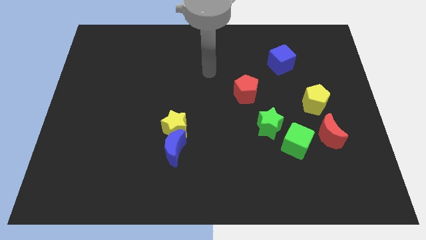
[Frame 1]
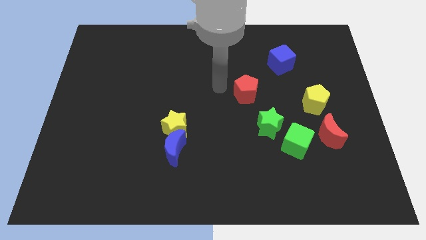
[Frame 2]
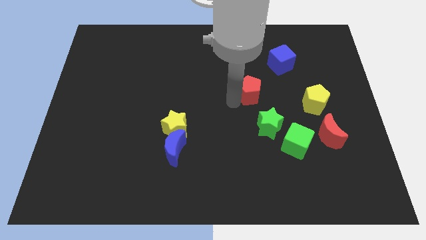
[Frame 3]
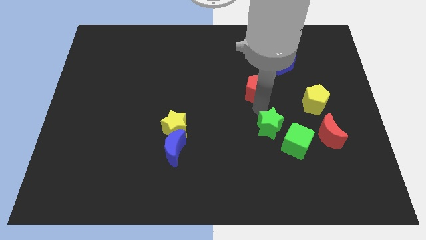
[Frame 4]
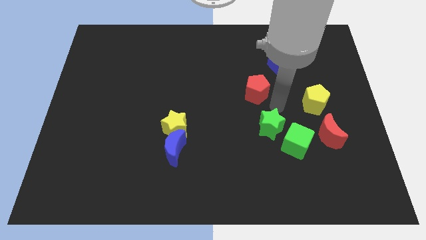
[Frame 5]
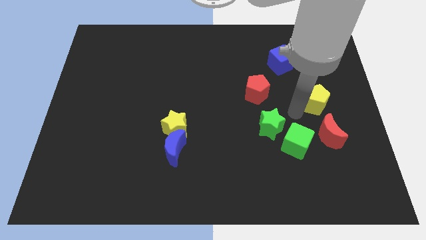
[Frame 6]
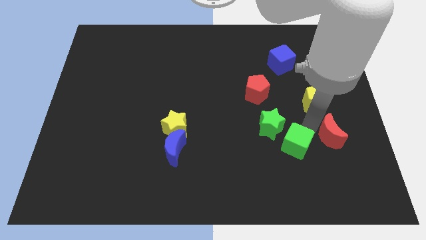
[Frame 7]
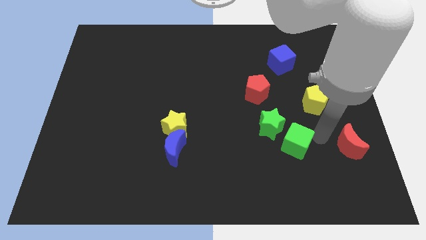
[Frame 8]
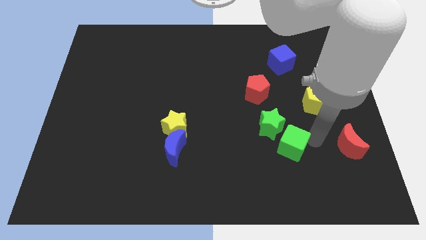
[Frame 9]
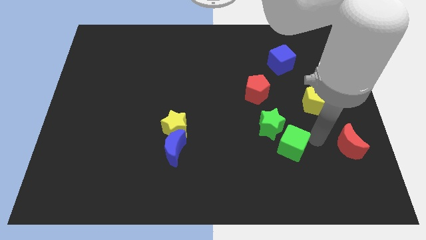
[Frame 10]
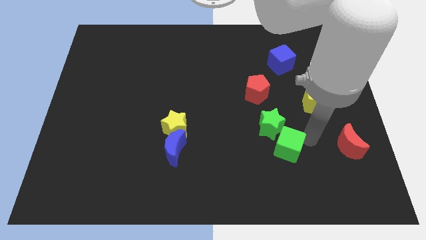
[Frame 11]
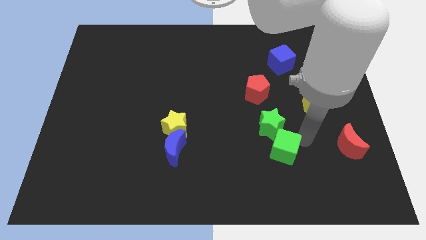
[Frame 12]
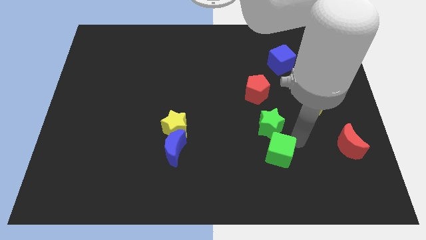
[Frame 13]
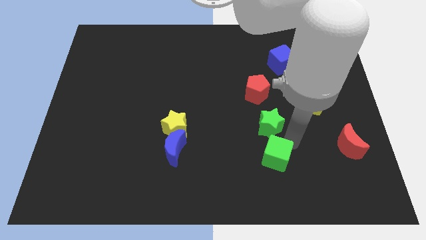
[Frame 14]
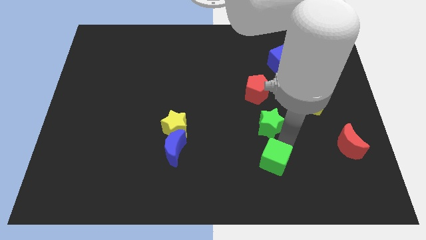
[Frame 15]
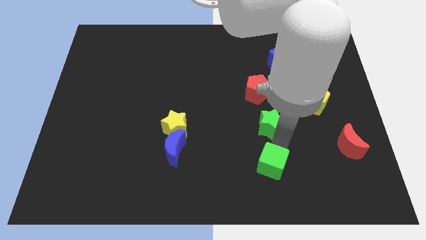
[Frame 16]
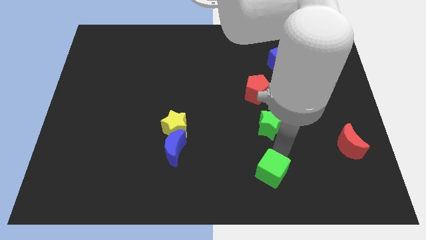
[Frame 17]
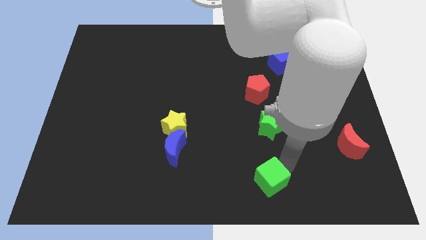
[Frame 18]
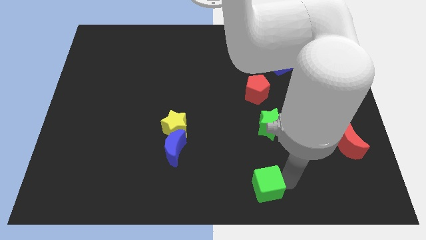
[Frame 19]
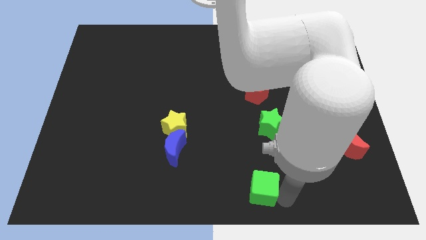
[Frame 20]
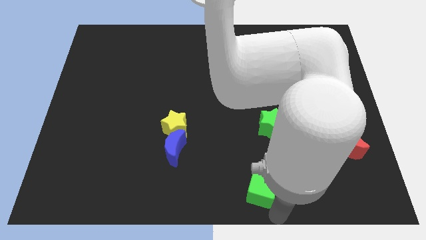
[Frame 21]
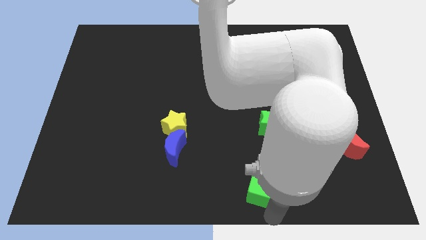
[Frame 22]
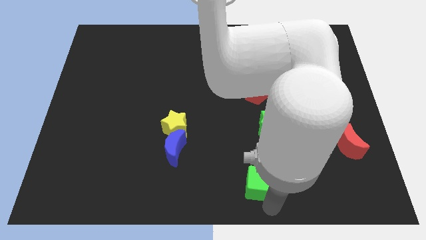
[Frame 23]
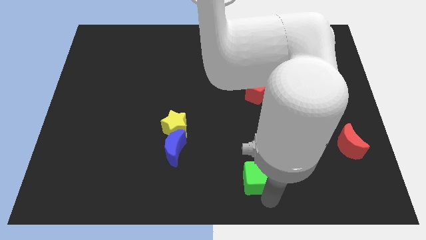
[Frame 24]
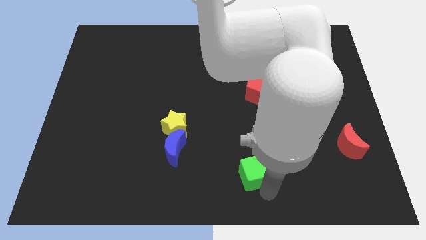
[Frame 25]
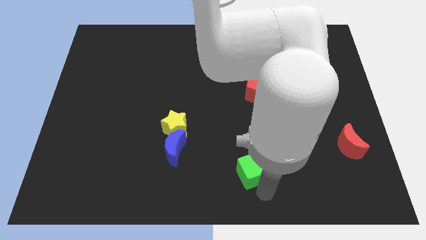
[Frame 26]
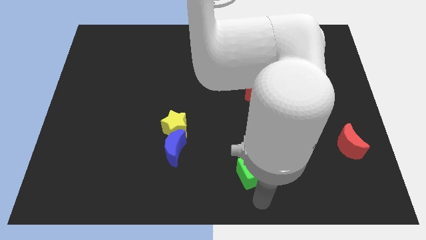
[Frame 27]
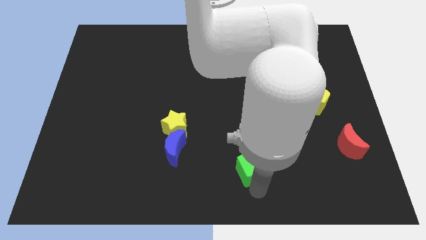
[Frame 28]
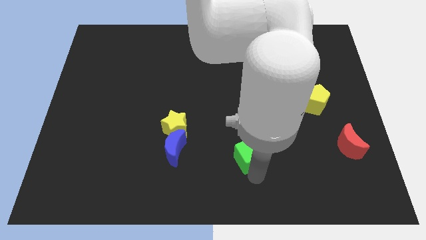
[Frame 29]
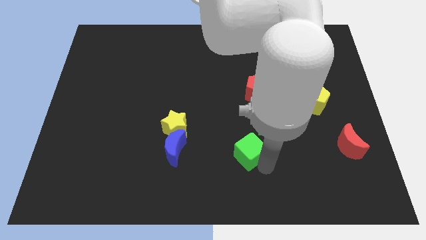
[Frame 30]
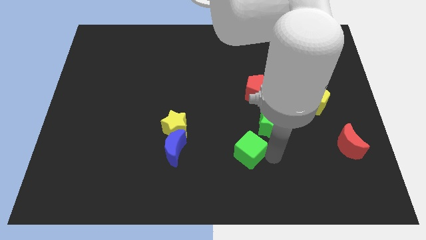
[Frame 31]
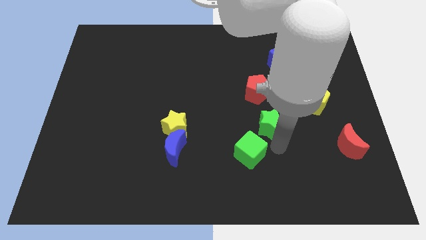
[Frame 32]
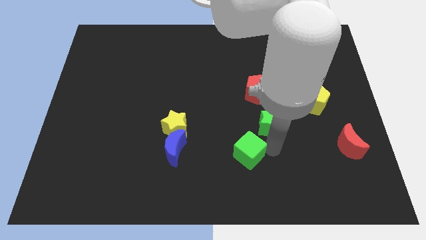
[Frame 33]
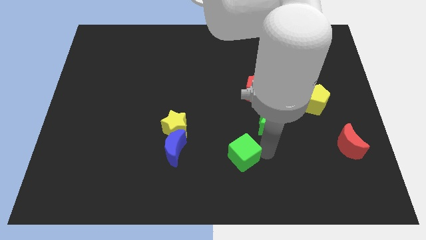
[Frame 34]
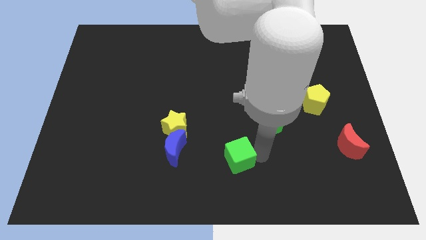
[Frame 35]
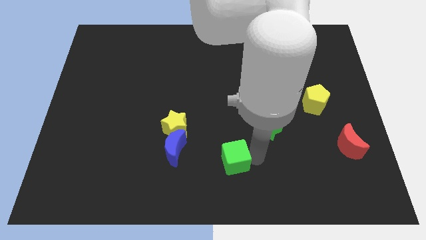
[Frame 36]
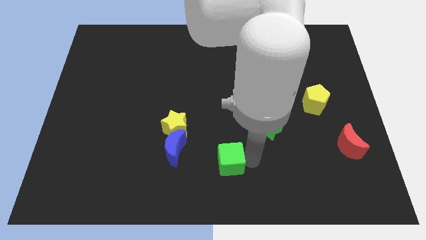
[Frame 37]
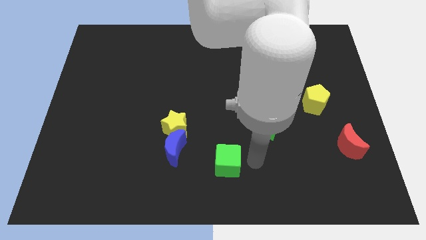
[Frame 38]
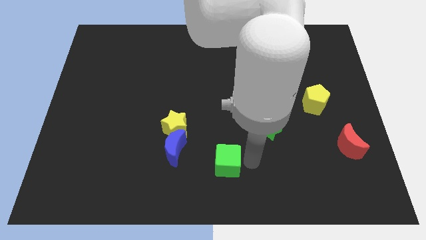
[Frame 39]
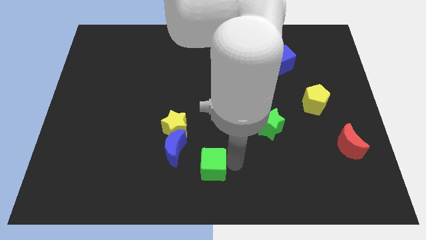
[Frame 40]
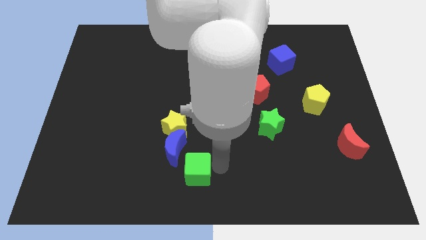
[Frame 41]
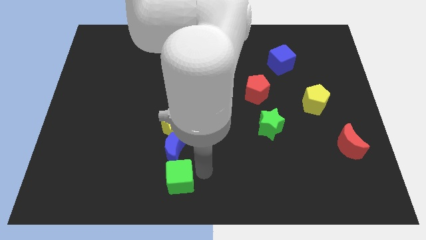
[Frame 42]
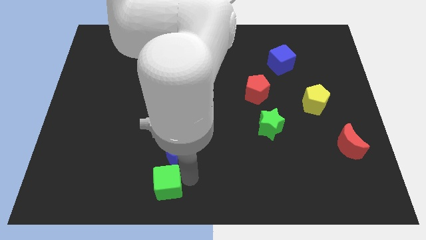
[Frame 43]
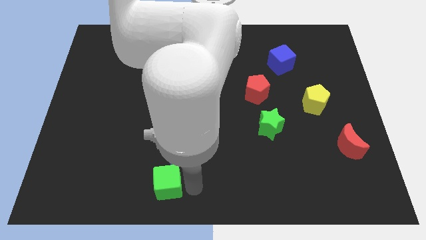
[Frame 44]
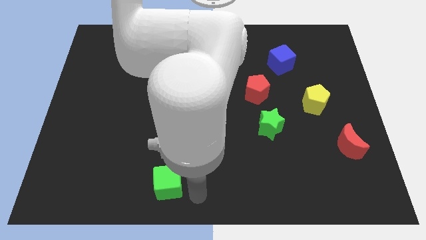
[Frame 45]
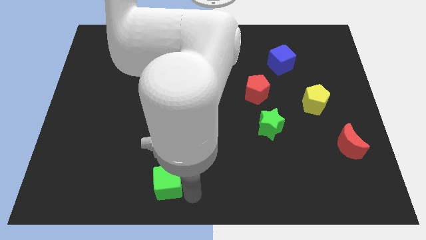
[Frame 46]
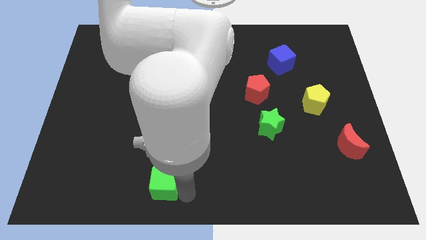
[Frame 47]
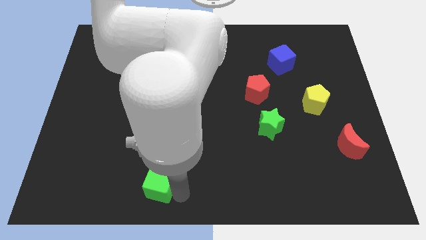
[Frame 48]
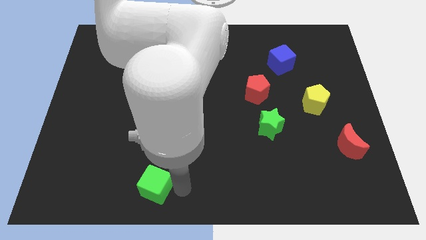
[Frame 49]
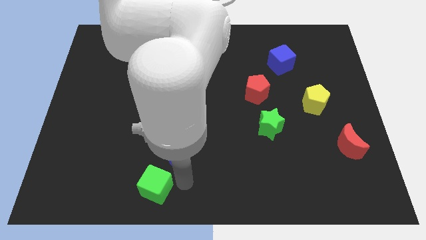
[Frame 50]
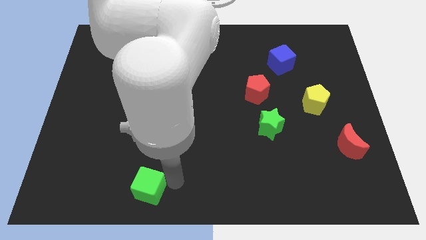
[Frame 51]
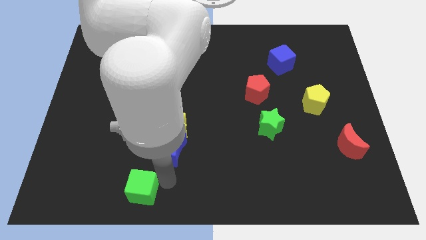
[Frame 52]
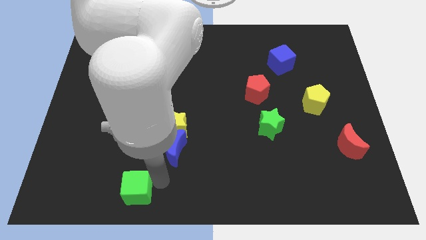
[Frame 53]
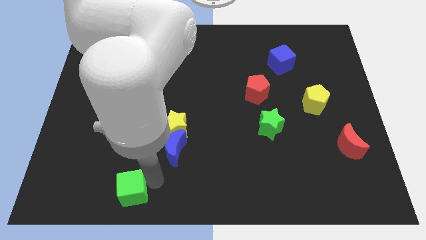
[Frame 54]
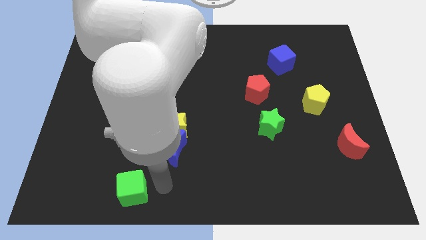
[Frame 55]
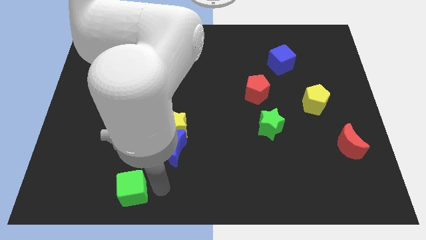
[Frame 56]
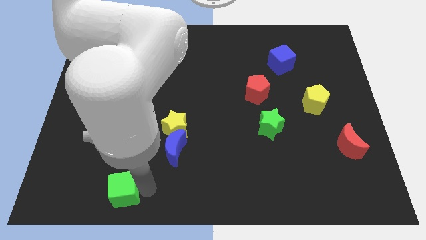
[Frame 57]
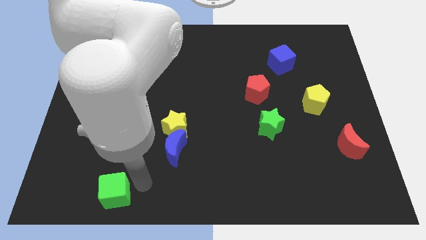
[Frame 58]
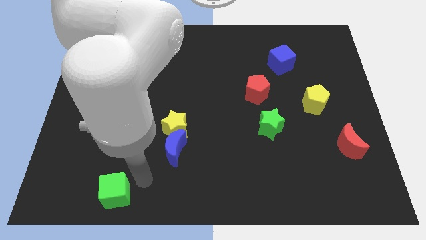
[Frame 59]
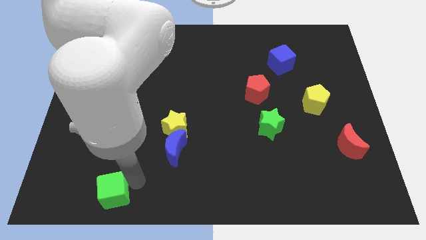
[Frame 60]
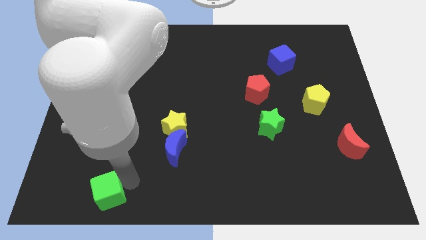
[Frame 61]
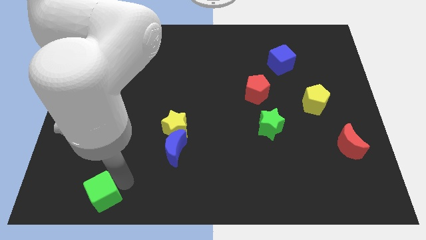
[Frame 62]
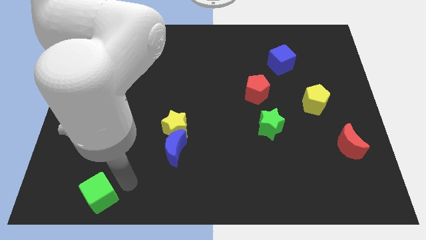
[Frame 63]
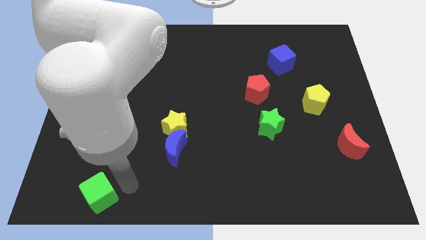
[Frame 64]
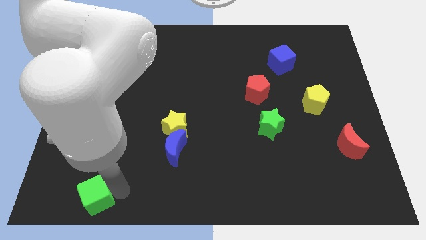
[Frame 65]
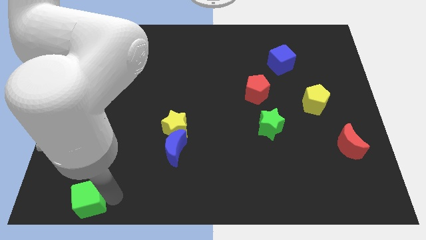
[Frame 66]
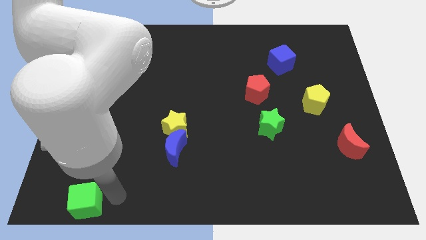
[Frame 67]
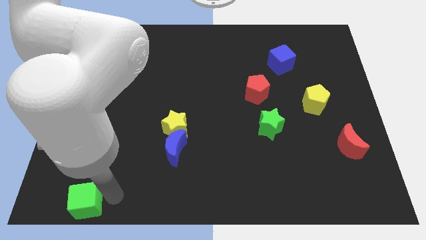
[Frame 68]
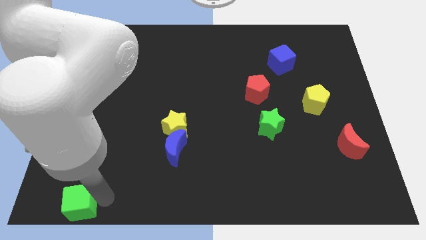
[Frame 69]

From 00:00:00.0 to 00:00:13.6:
put the green cube to the bottom left
